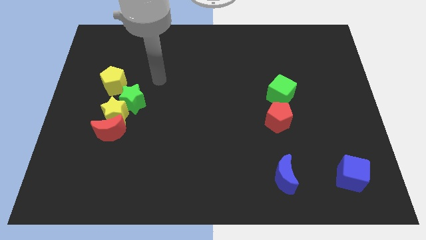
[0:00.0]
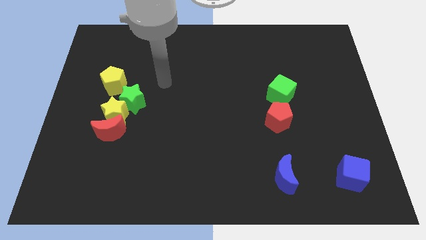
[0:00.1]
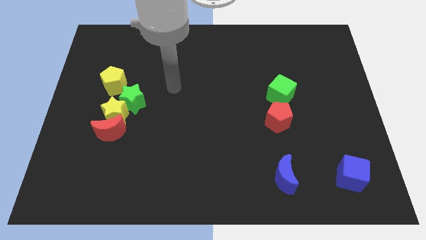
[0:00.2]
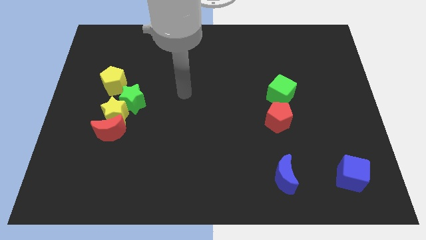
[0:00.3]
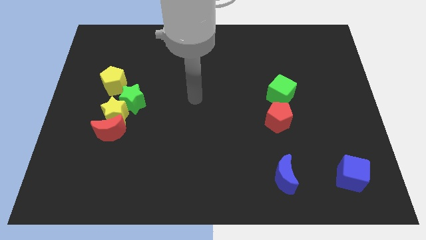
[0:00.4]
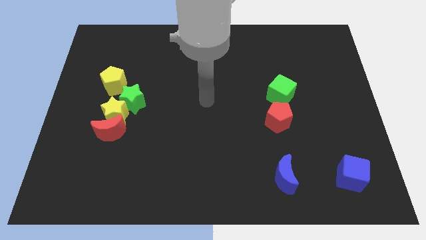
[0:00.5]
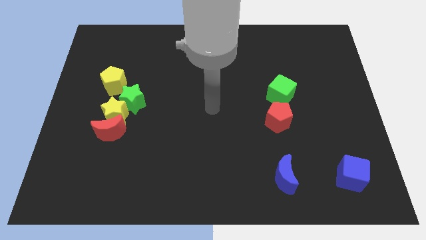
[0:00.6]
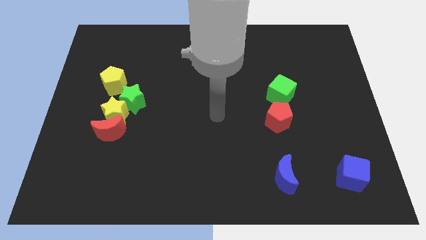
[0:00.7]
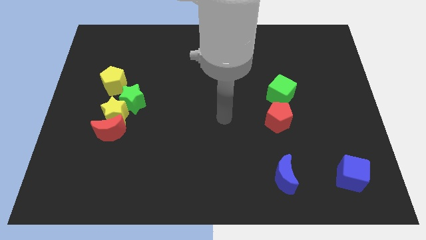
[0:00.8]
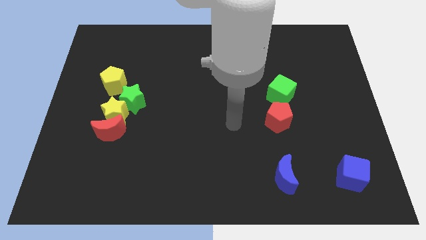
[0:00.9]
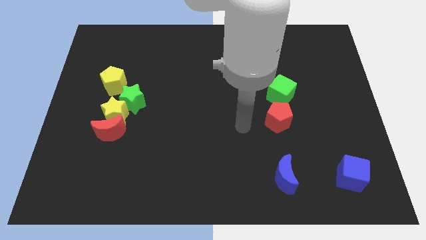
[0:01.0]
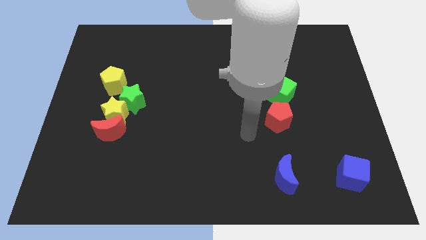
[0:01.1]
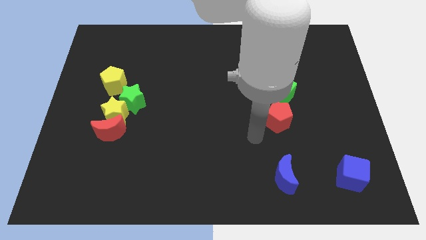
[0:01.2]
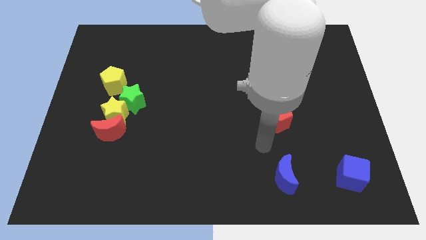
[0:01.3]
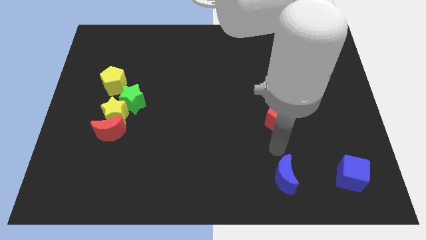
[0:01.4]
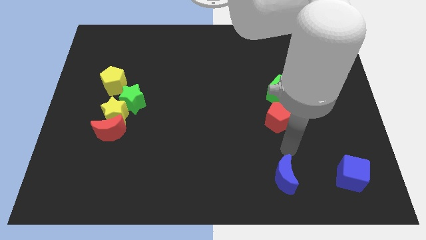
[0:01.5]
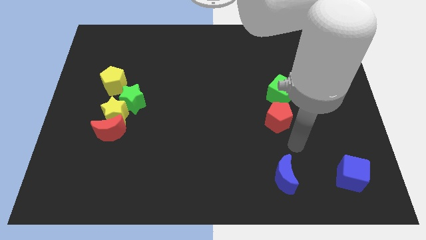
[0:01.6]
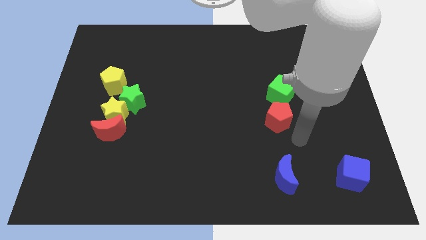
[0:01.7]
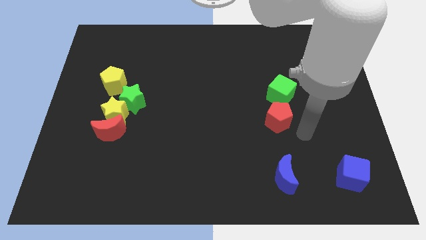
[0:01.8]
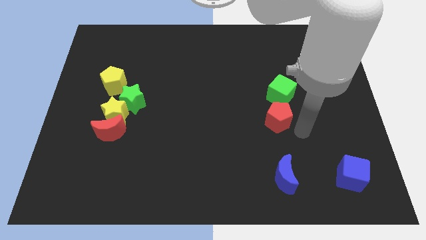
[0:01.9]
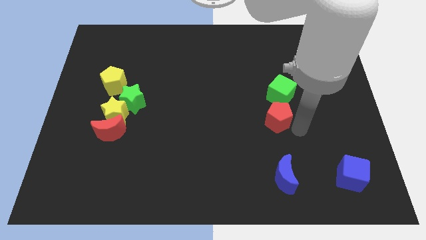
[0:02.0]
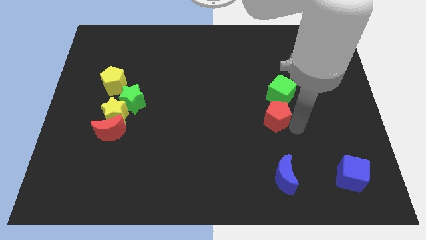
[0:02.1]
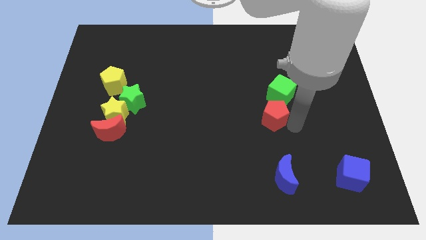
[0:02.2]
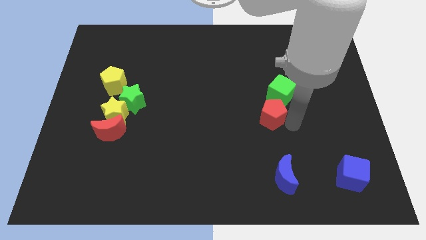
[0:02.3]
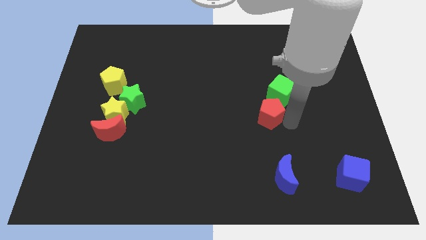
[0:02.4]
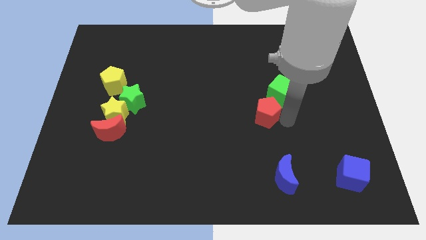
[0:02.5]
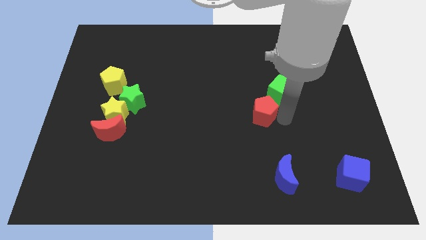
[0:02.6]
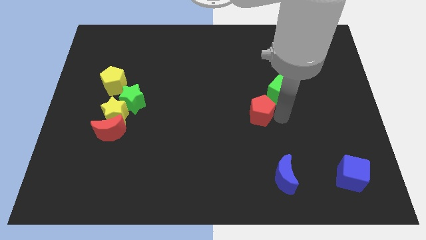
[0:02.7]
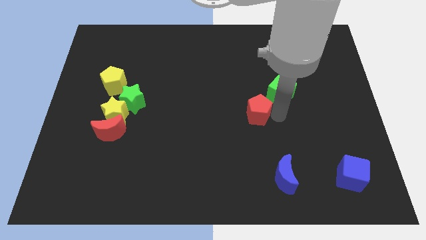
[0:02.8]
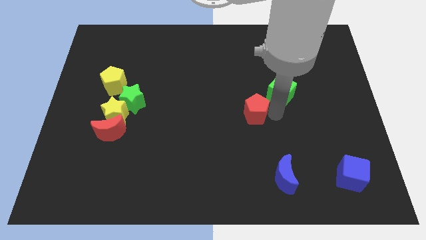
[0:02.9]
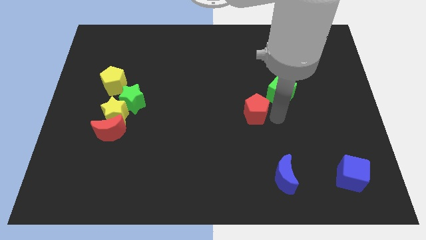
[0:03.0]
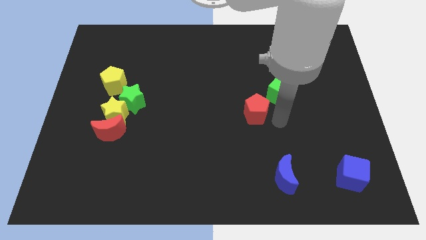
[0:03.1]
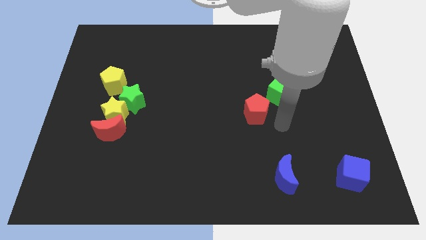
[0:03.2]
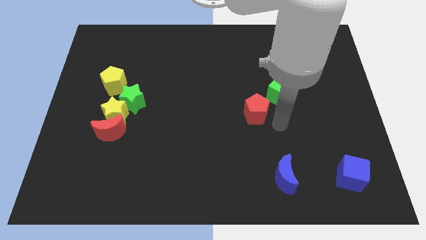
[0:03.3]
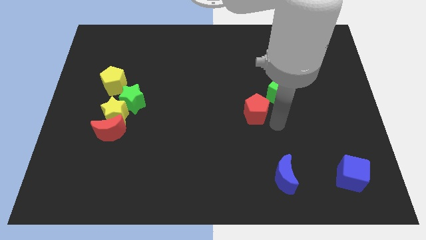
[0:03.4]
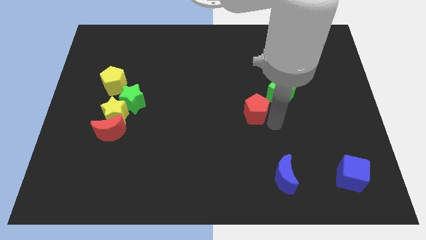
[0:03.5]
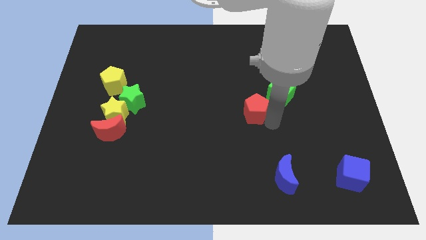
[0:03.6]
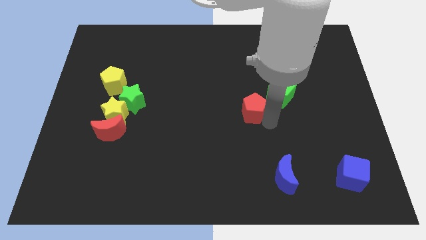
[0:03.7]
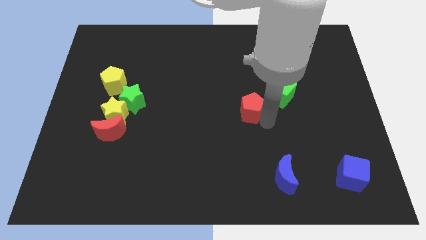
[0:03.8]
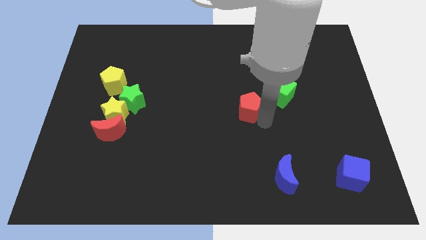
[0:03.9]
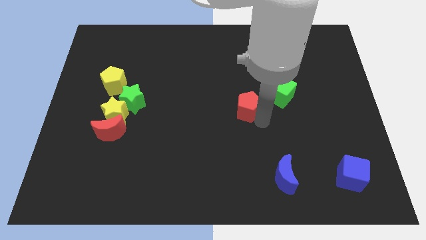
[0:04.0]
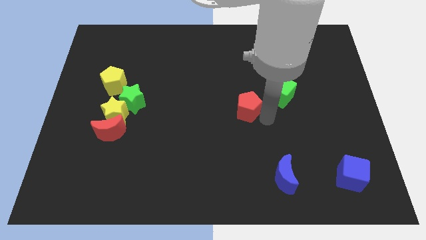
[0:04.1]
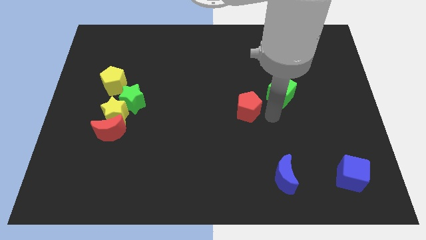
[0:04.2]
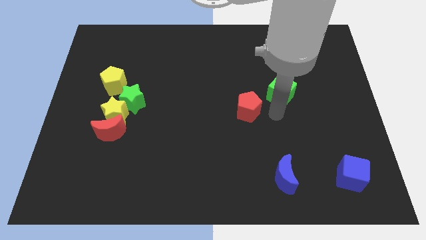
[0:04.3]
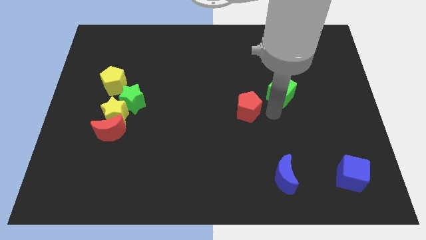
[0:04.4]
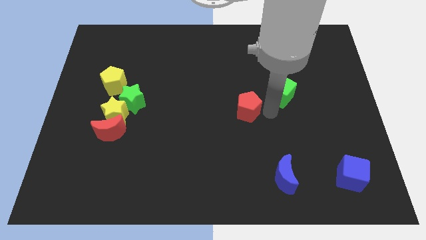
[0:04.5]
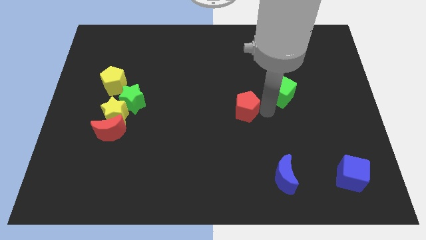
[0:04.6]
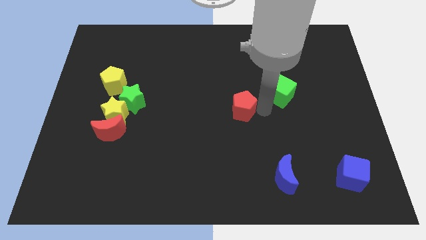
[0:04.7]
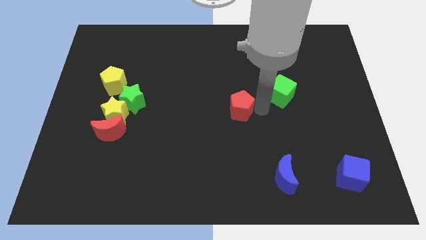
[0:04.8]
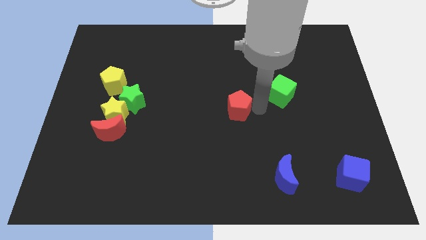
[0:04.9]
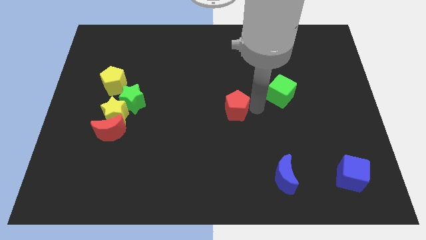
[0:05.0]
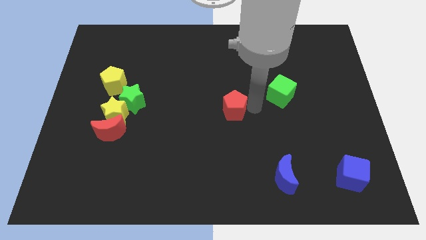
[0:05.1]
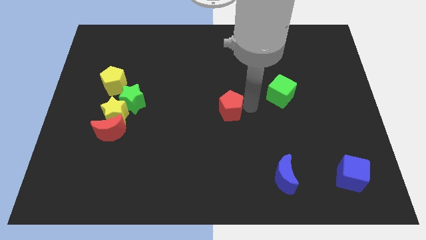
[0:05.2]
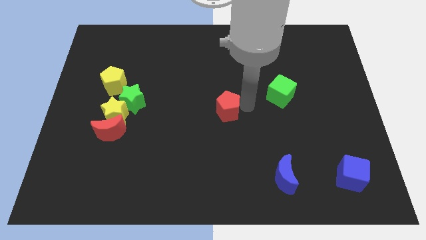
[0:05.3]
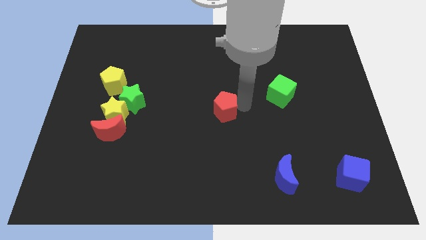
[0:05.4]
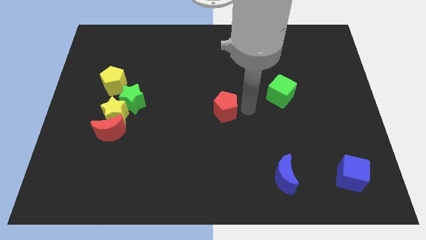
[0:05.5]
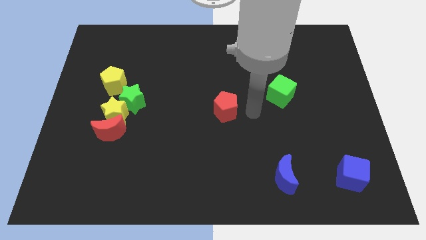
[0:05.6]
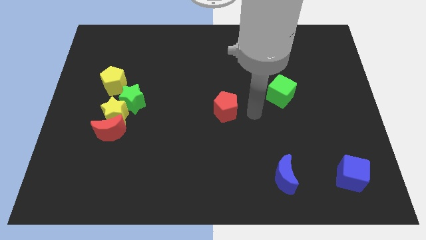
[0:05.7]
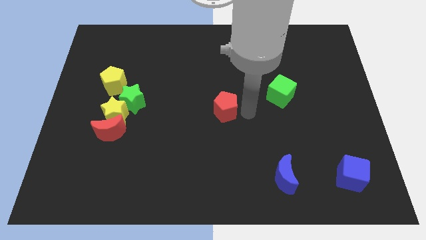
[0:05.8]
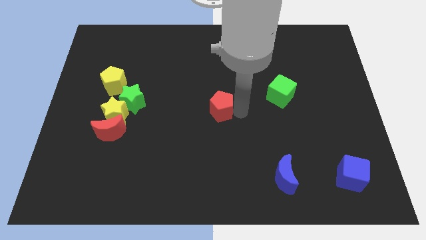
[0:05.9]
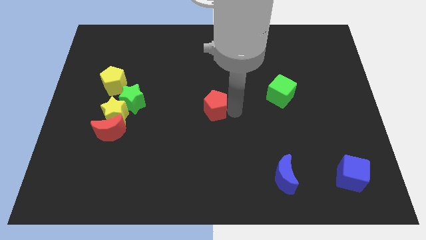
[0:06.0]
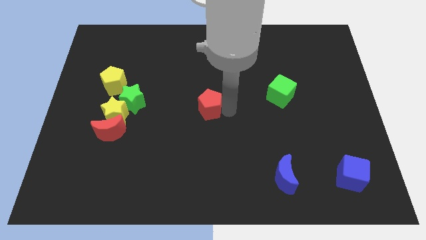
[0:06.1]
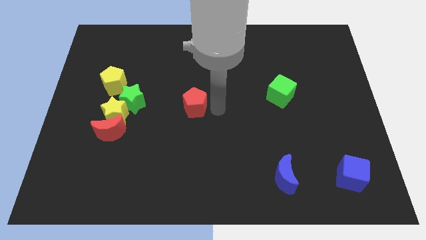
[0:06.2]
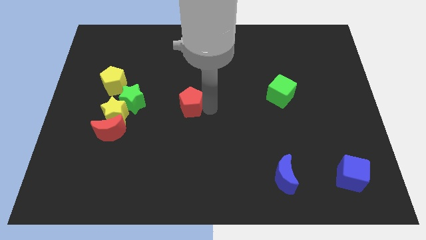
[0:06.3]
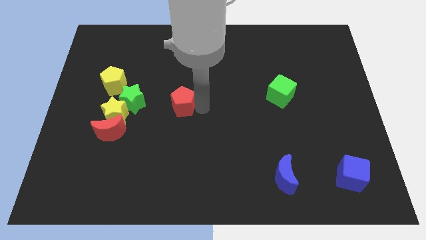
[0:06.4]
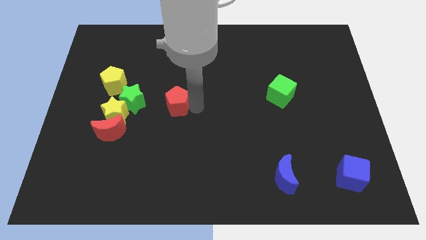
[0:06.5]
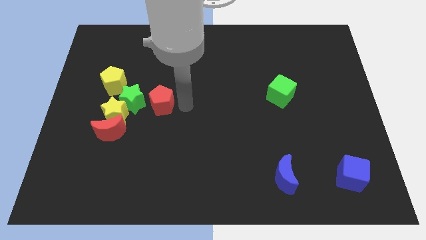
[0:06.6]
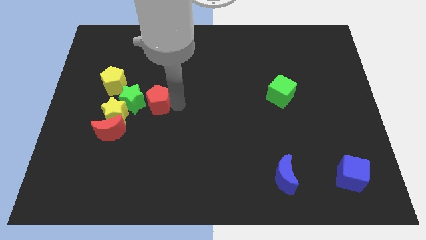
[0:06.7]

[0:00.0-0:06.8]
put the red pentagon towards the green star

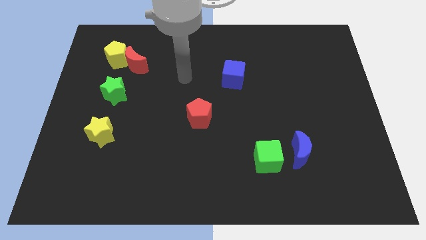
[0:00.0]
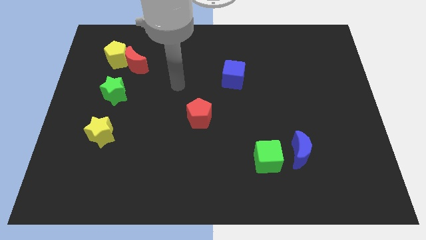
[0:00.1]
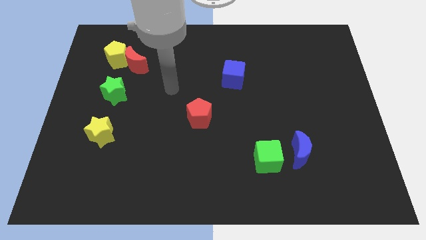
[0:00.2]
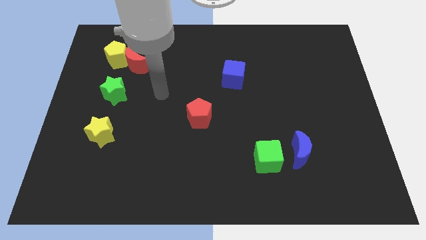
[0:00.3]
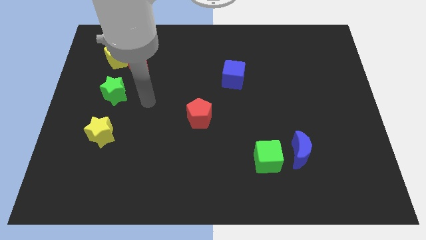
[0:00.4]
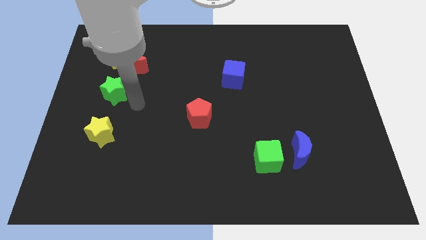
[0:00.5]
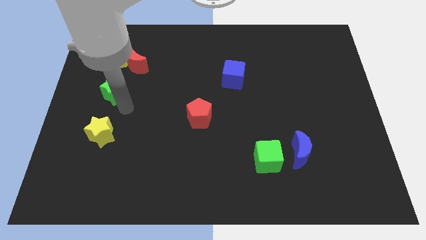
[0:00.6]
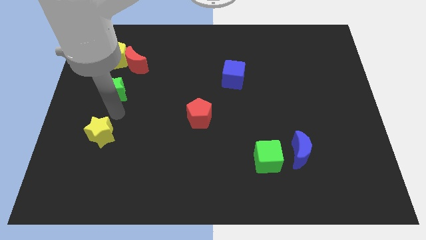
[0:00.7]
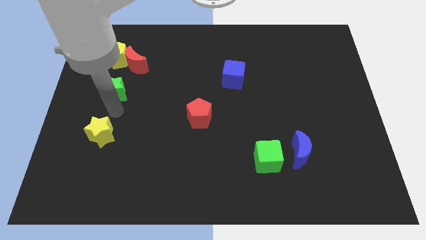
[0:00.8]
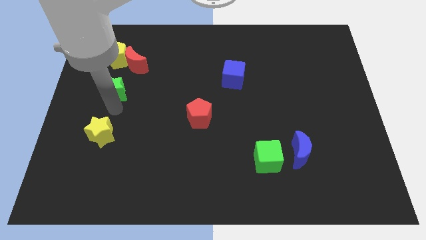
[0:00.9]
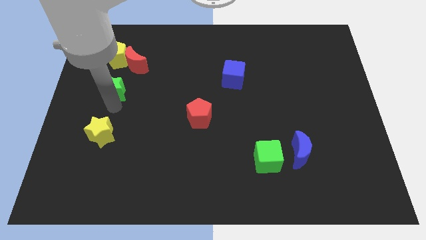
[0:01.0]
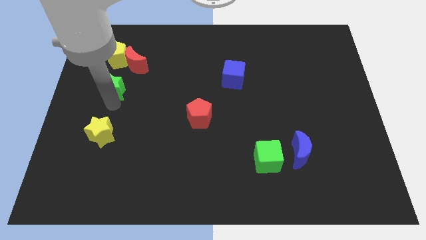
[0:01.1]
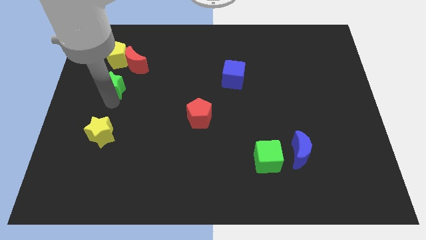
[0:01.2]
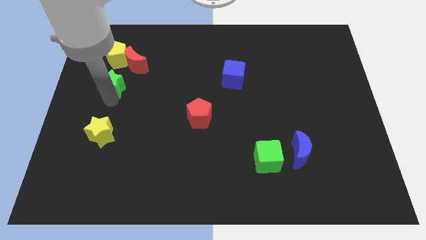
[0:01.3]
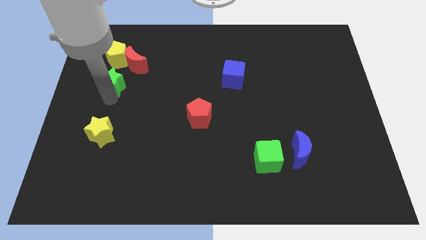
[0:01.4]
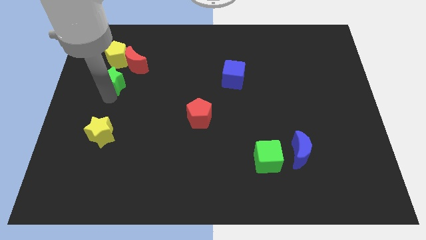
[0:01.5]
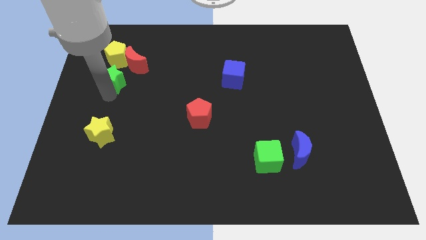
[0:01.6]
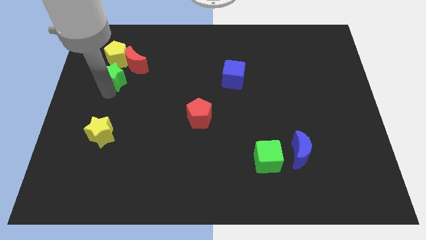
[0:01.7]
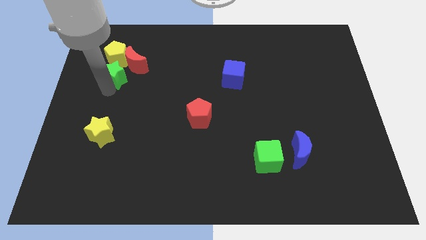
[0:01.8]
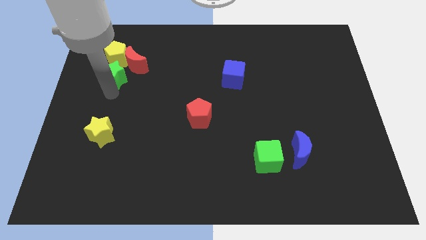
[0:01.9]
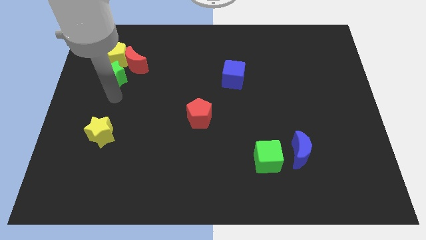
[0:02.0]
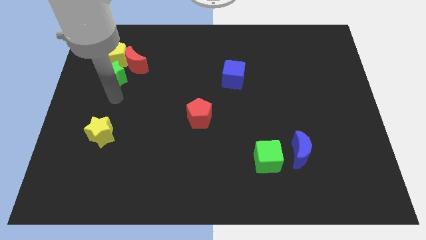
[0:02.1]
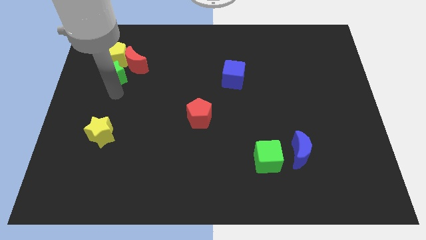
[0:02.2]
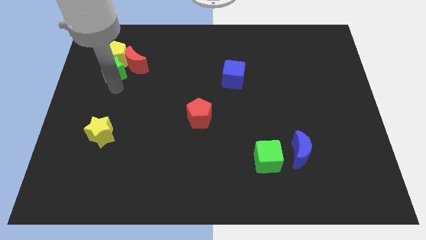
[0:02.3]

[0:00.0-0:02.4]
slide the green star towards the yellow pentagon
